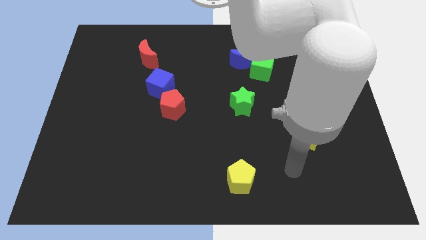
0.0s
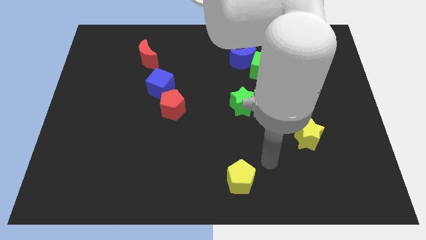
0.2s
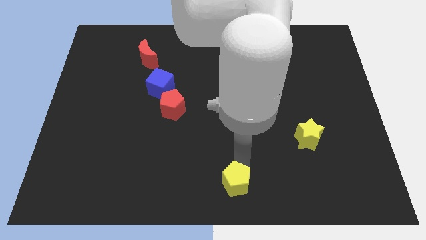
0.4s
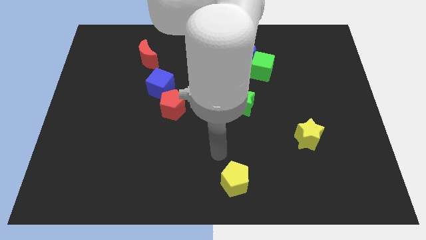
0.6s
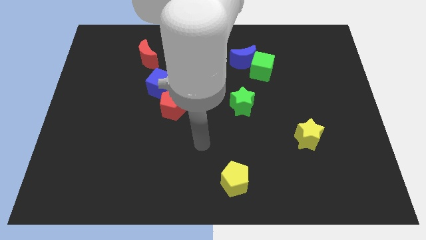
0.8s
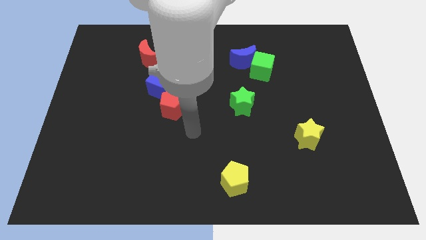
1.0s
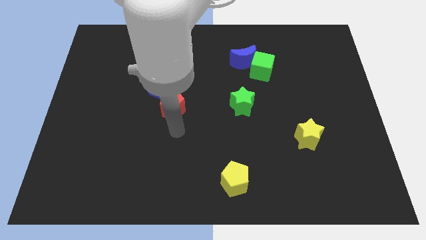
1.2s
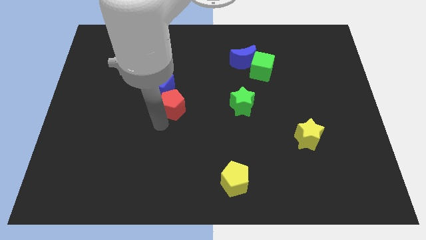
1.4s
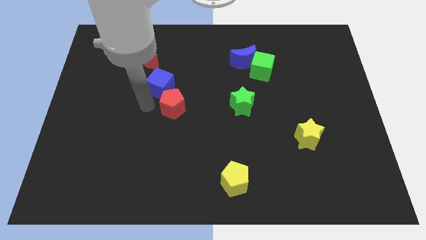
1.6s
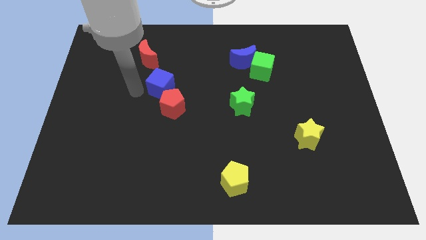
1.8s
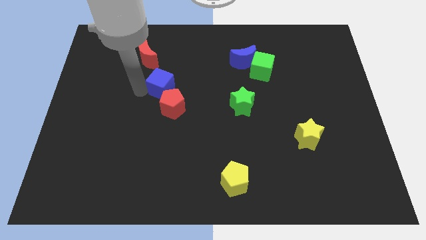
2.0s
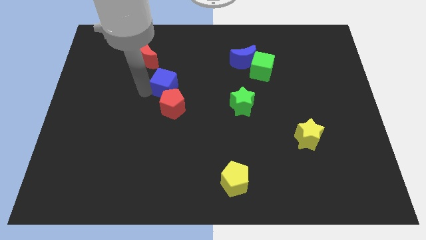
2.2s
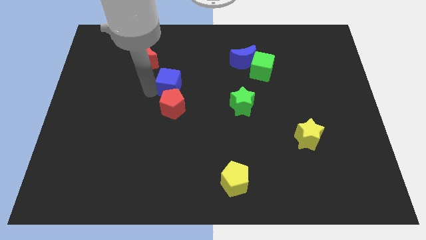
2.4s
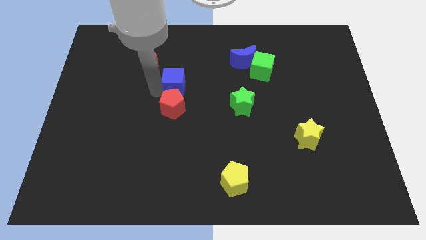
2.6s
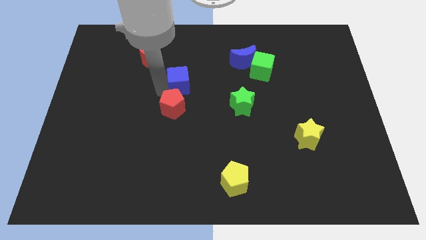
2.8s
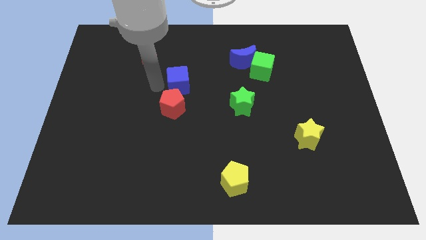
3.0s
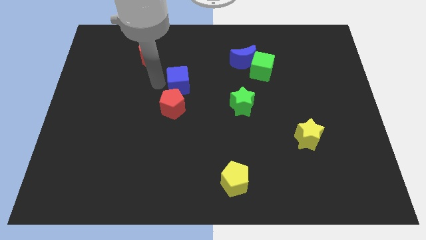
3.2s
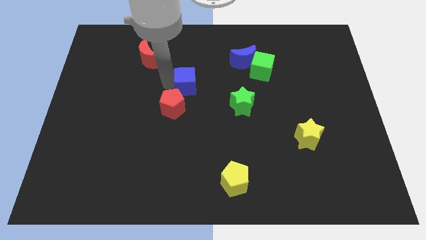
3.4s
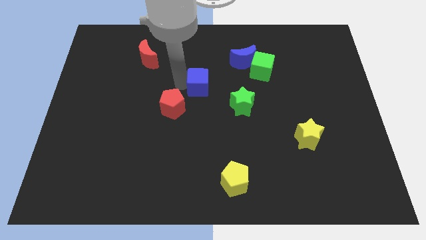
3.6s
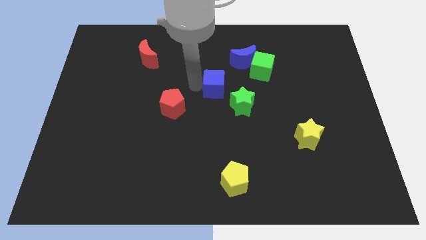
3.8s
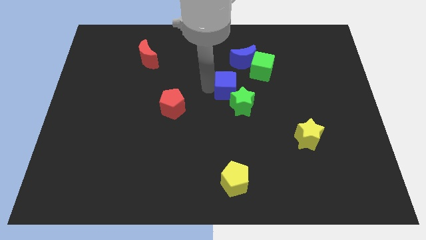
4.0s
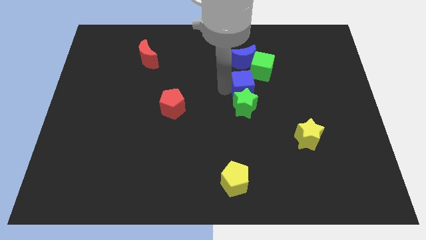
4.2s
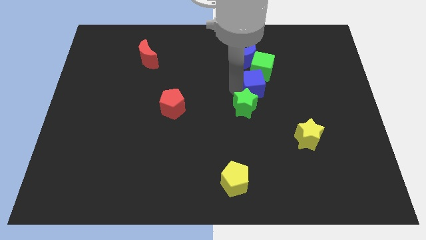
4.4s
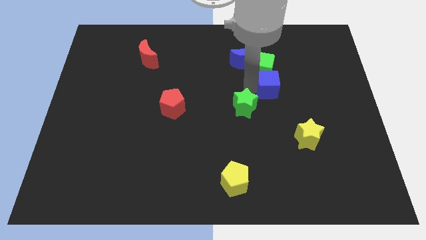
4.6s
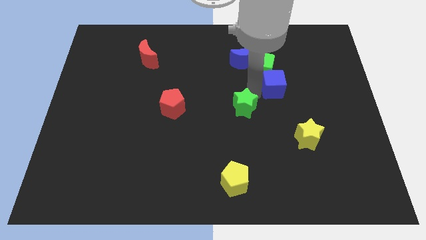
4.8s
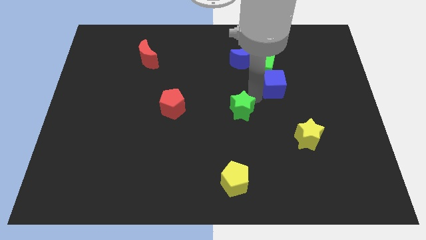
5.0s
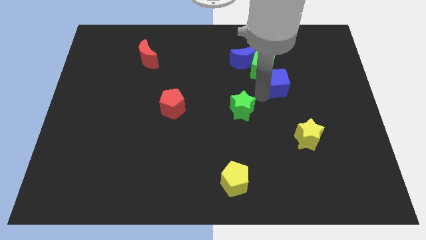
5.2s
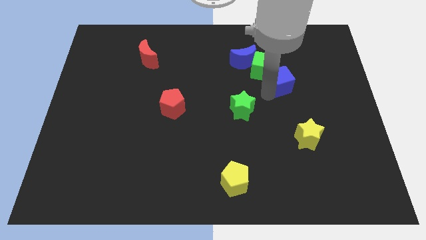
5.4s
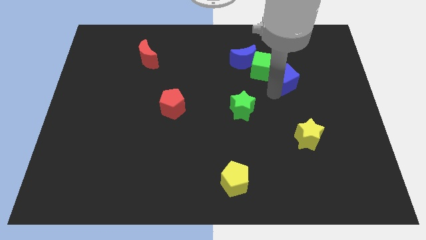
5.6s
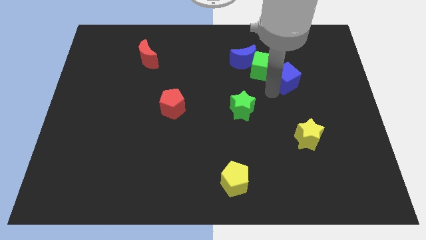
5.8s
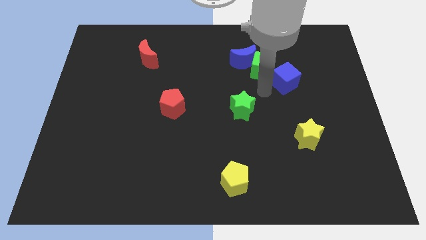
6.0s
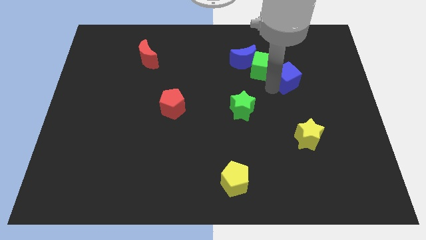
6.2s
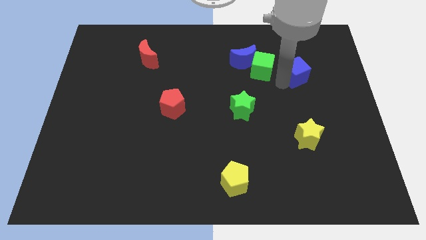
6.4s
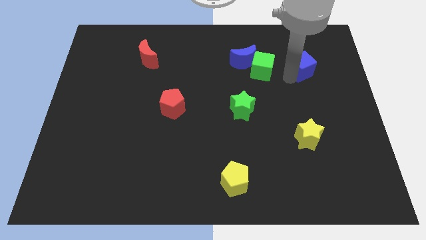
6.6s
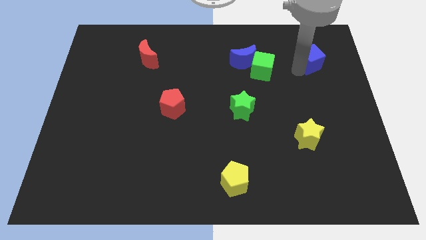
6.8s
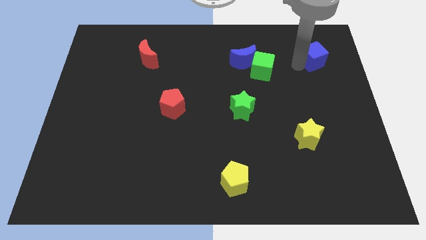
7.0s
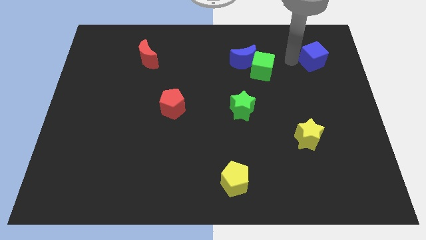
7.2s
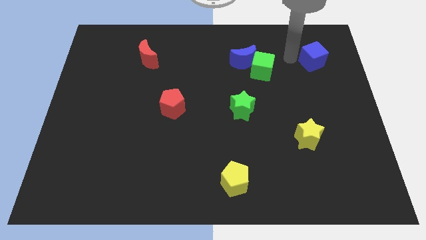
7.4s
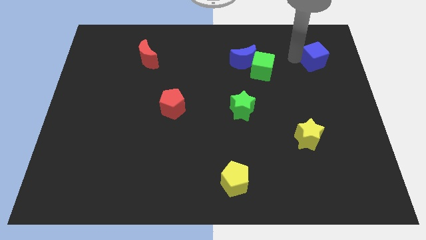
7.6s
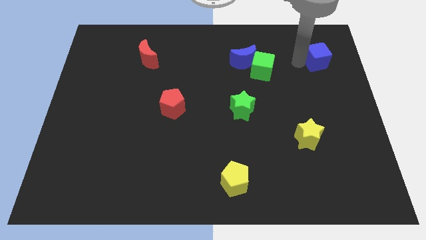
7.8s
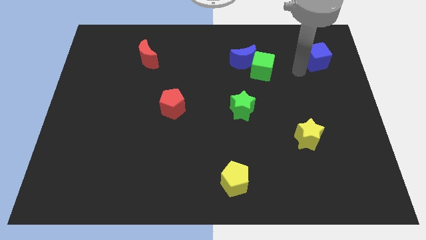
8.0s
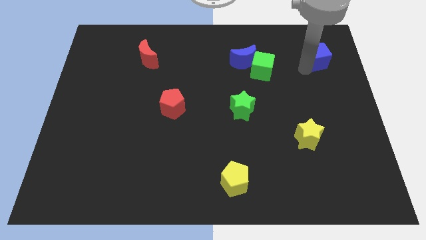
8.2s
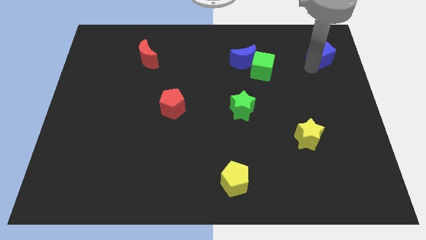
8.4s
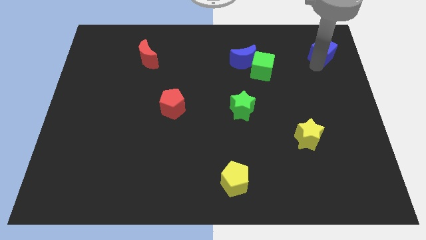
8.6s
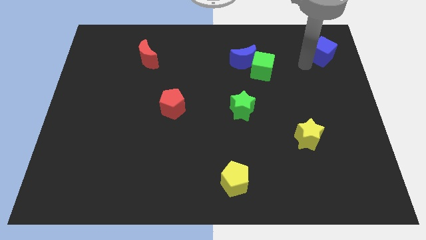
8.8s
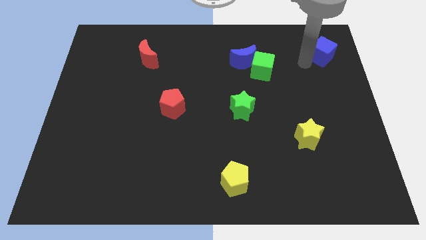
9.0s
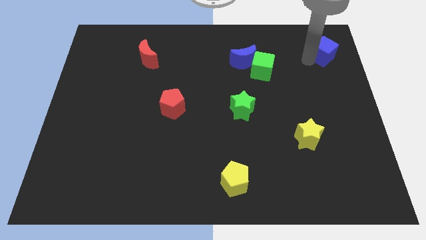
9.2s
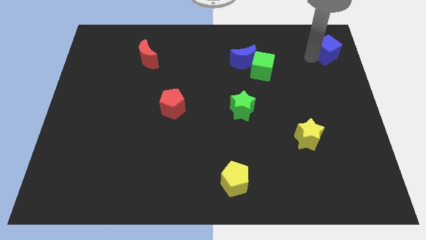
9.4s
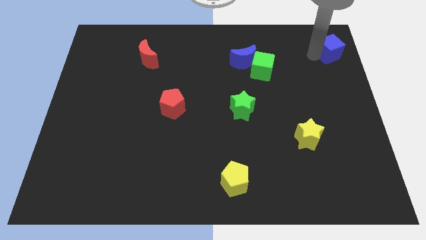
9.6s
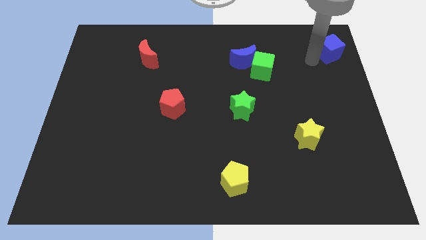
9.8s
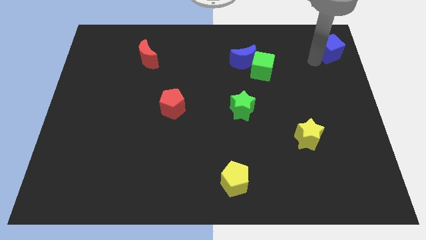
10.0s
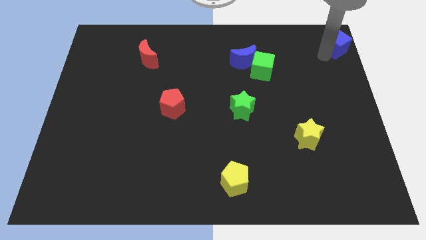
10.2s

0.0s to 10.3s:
push the blue cube to the top right

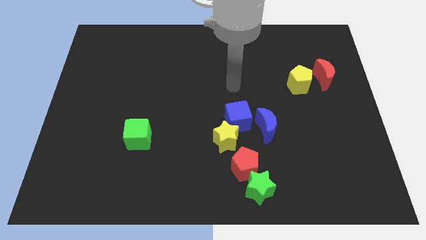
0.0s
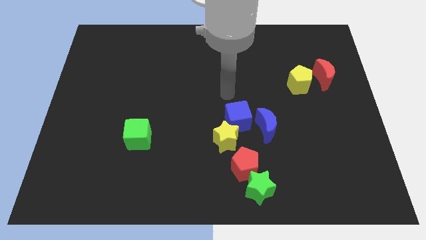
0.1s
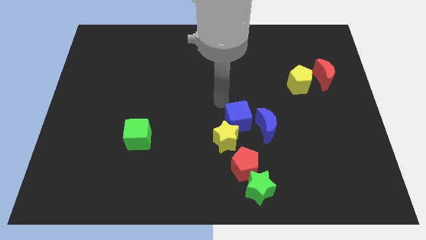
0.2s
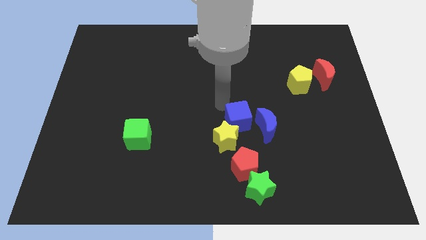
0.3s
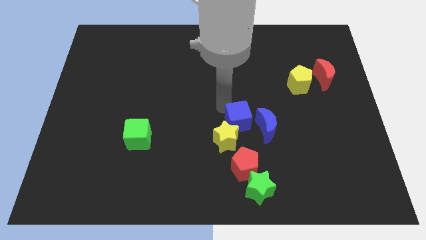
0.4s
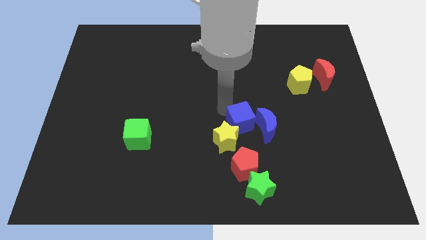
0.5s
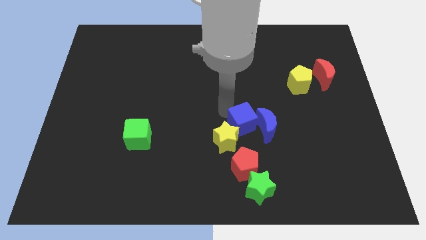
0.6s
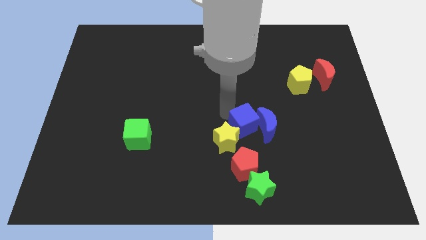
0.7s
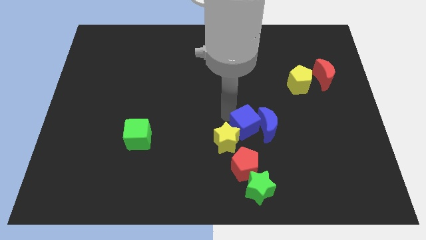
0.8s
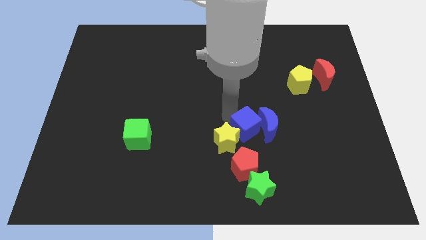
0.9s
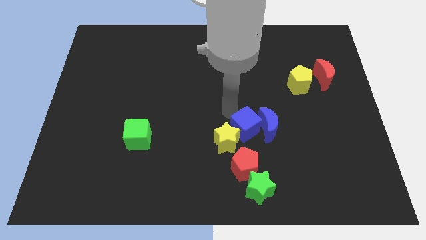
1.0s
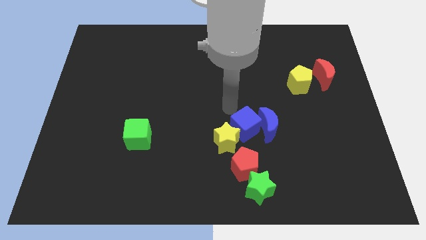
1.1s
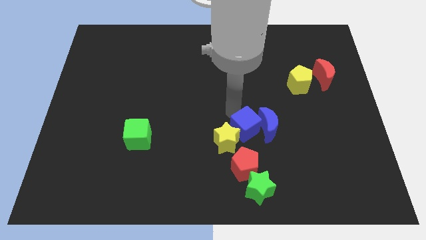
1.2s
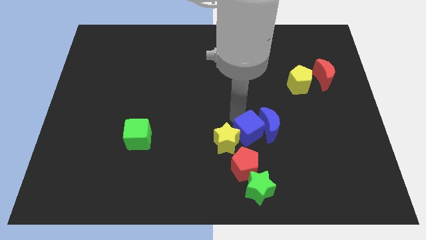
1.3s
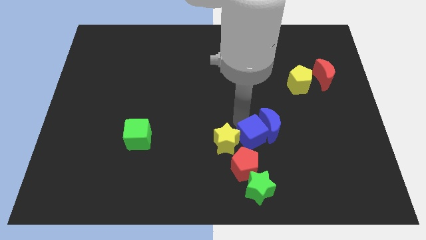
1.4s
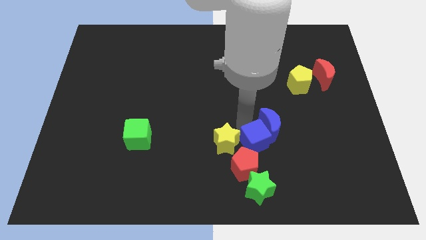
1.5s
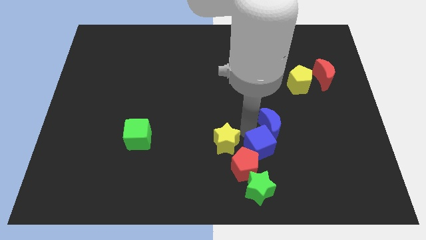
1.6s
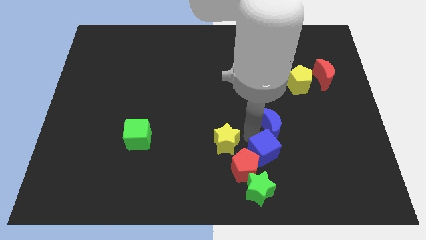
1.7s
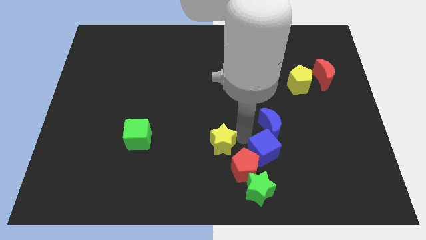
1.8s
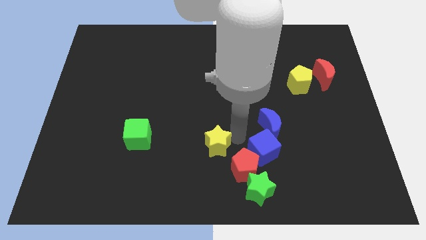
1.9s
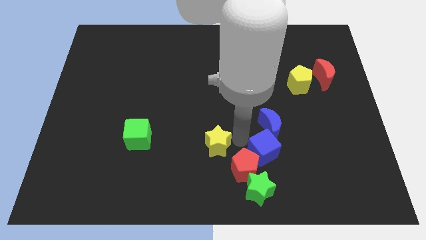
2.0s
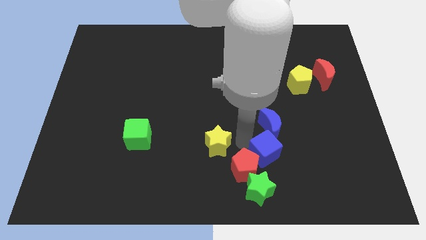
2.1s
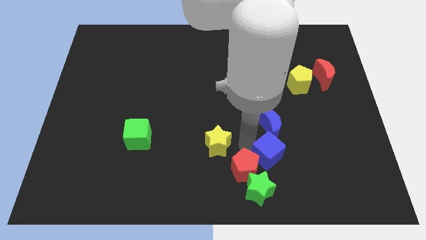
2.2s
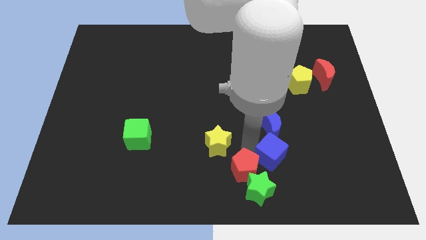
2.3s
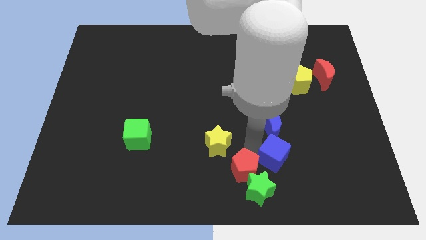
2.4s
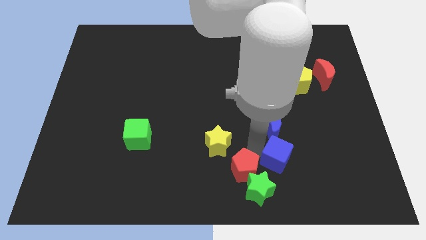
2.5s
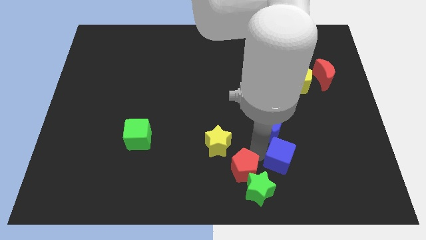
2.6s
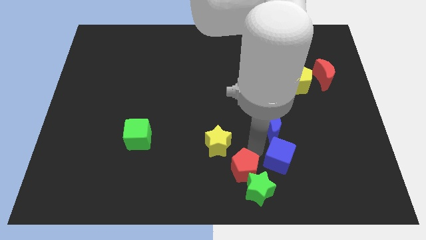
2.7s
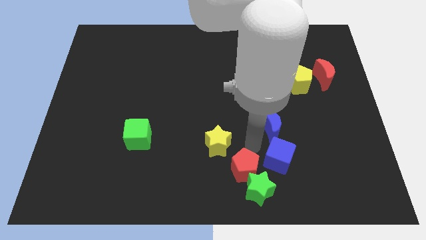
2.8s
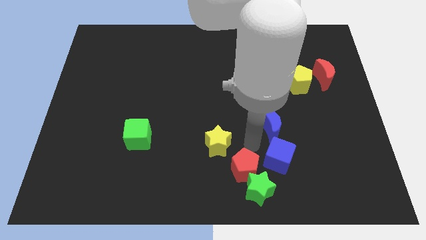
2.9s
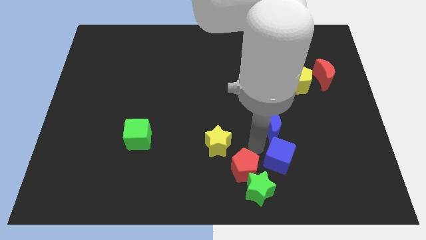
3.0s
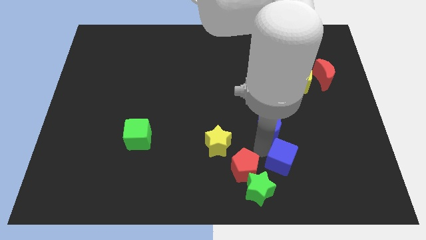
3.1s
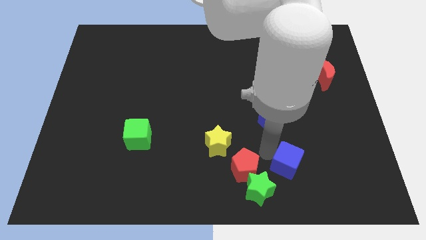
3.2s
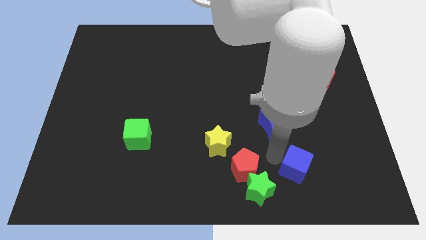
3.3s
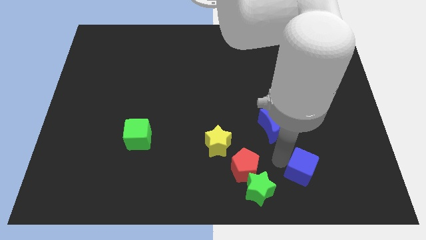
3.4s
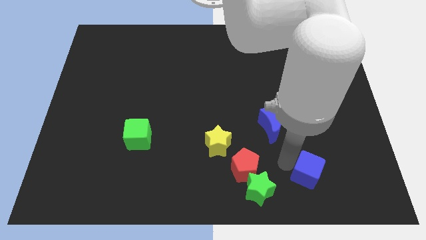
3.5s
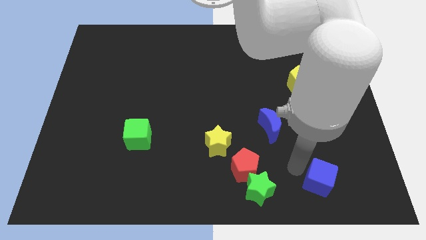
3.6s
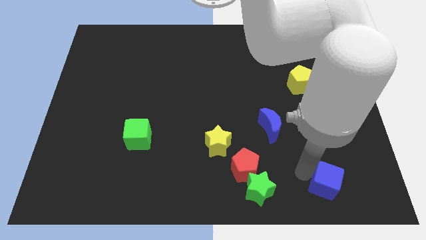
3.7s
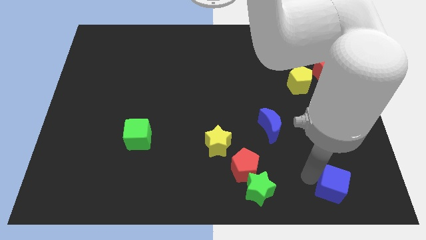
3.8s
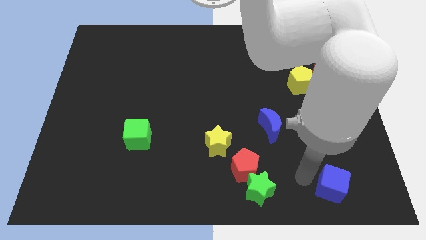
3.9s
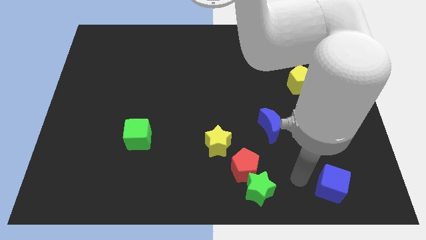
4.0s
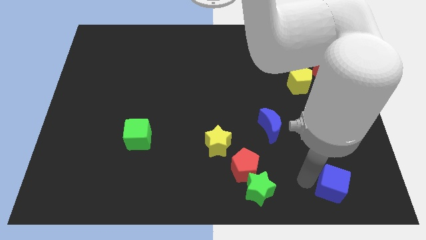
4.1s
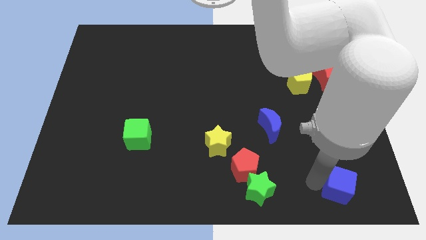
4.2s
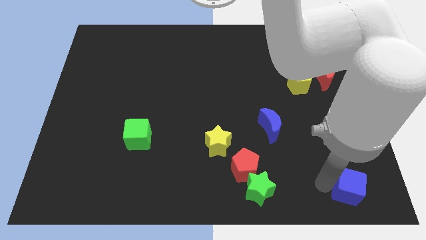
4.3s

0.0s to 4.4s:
push the blue cube to the bottom right corner
